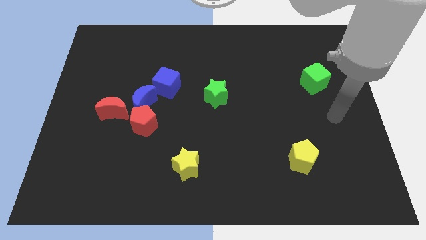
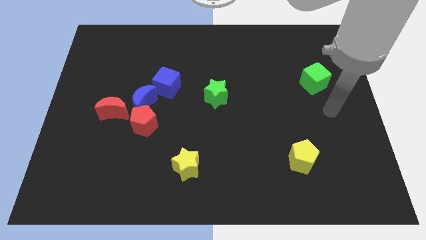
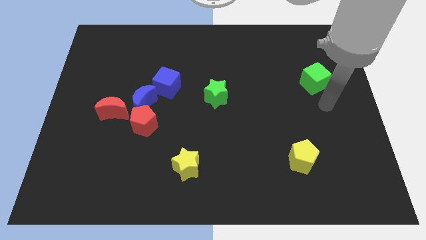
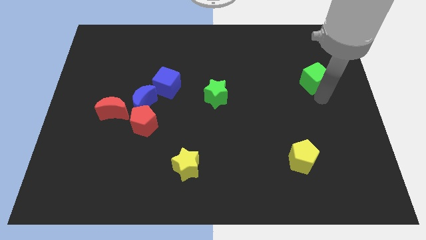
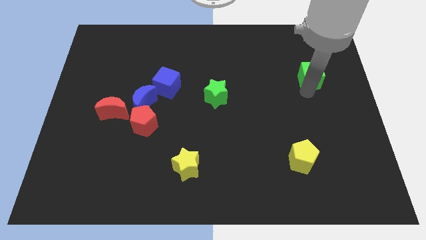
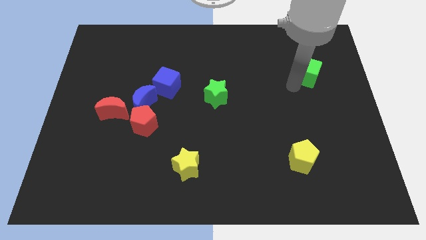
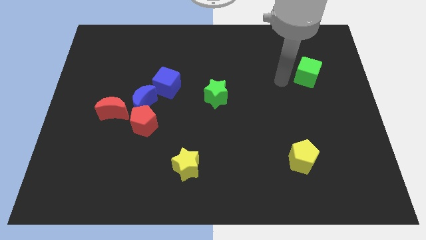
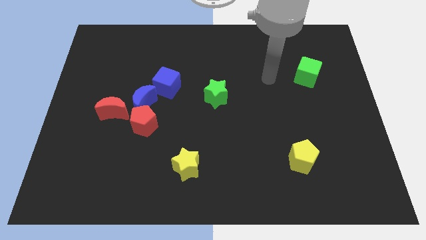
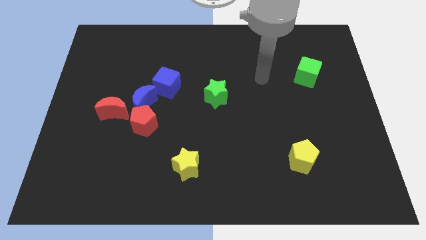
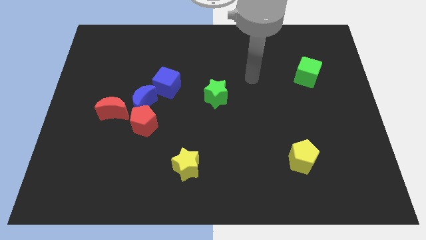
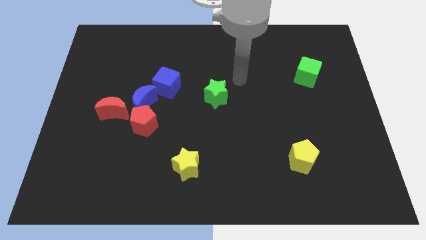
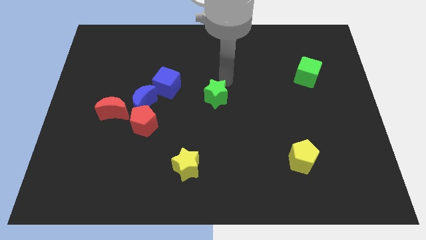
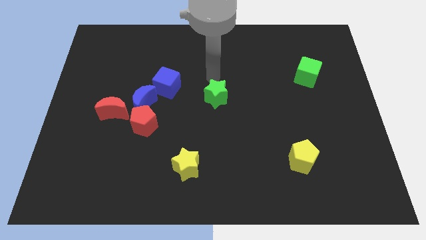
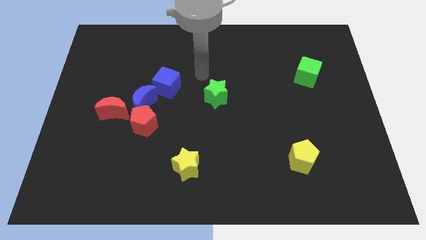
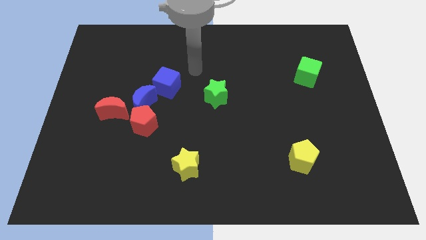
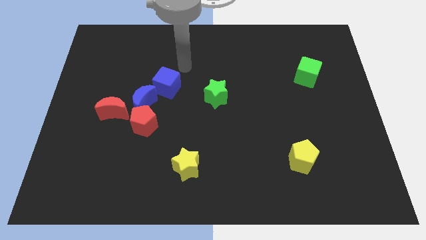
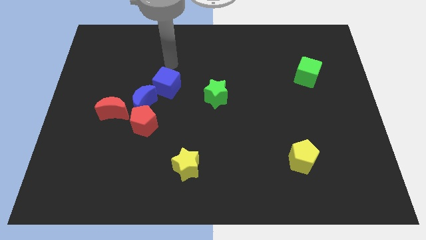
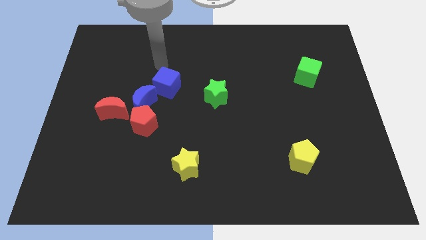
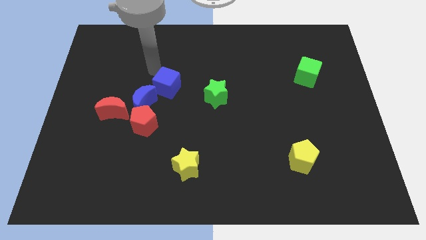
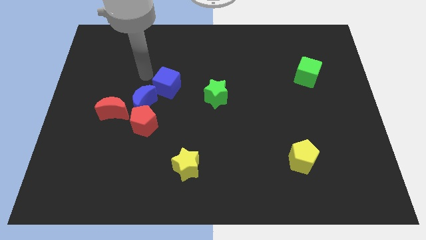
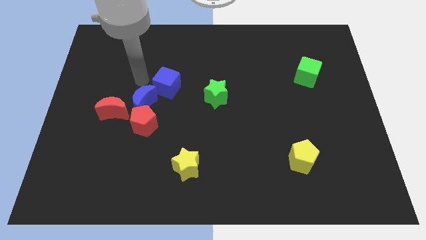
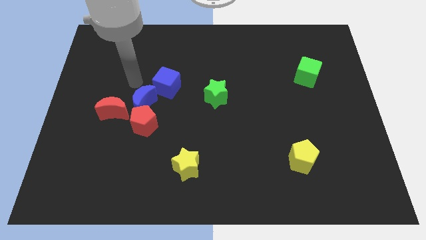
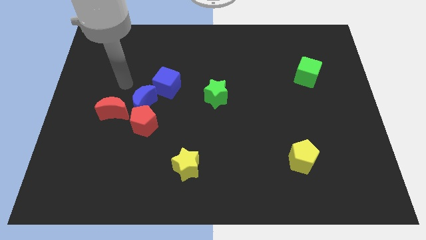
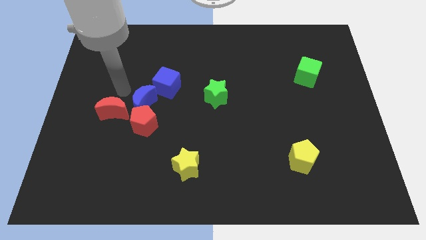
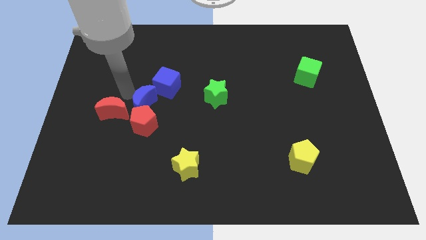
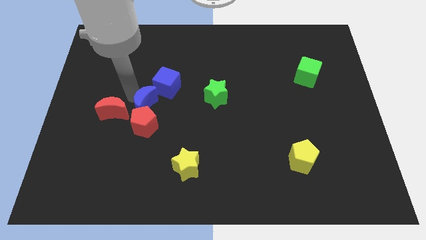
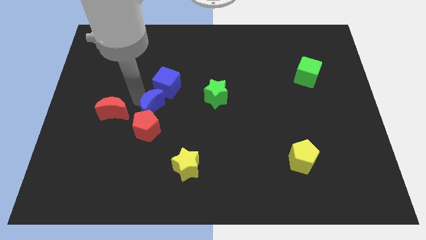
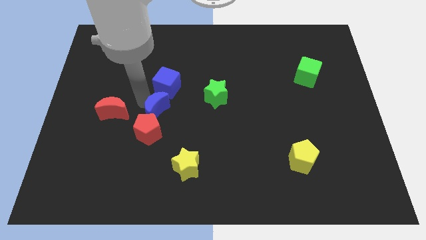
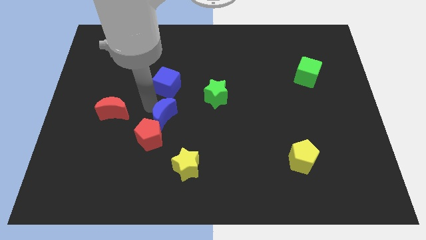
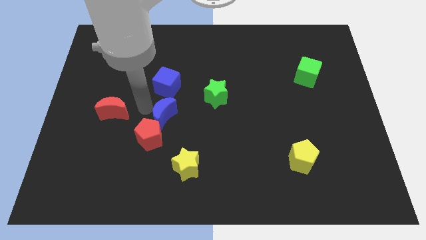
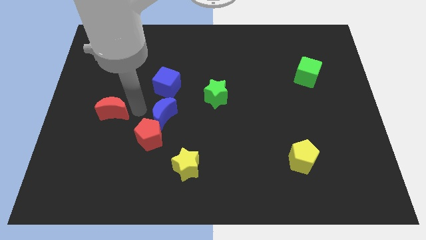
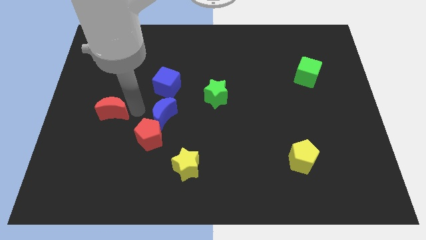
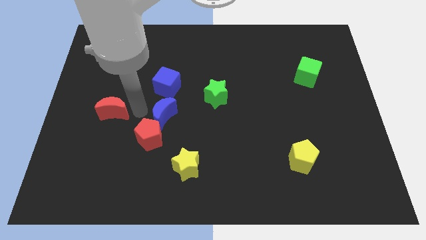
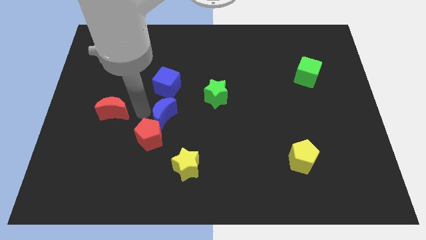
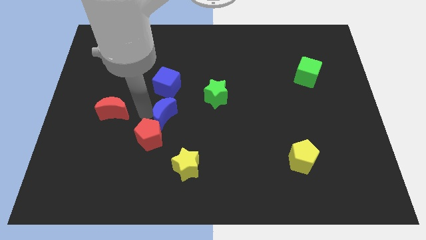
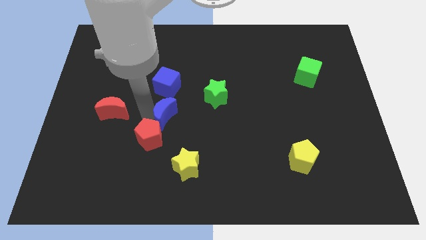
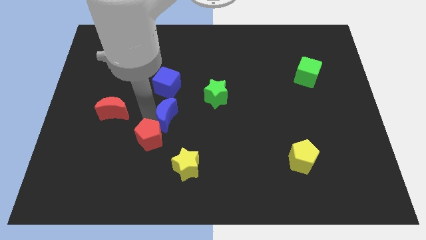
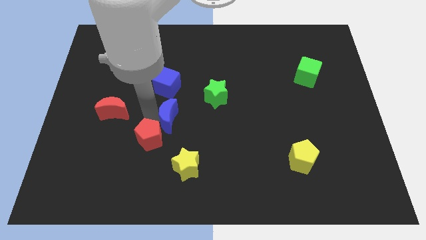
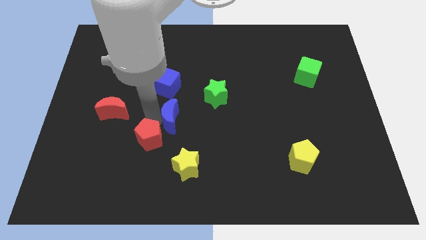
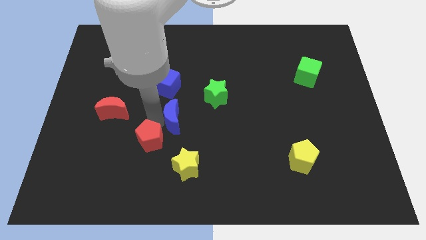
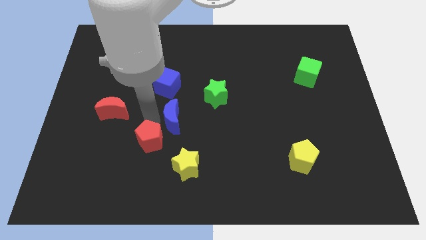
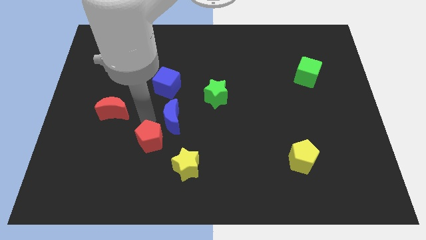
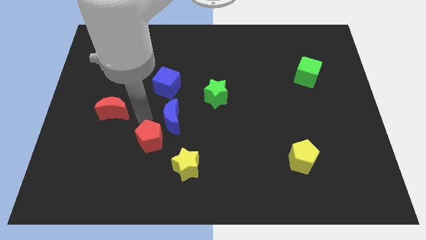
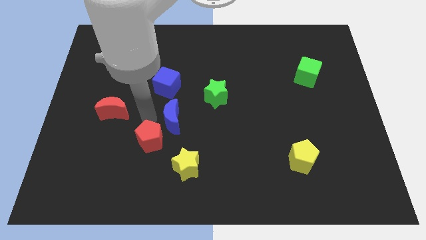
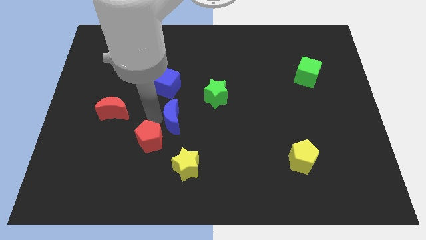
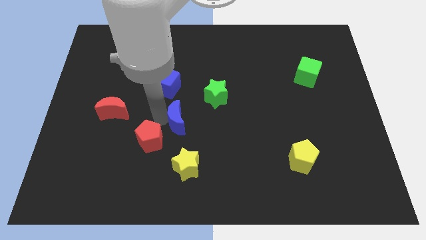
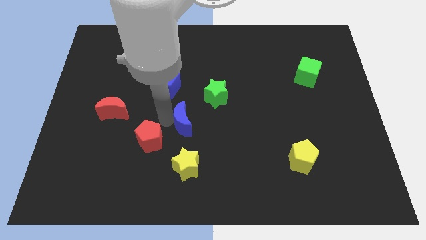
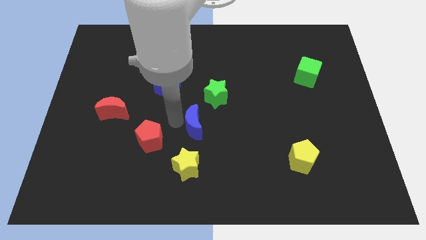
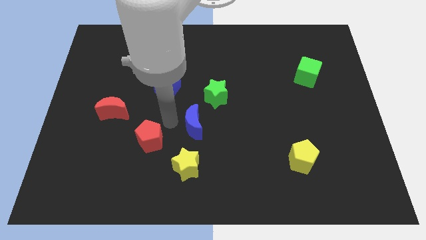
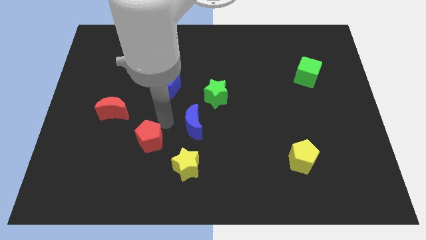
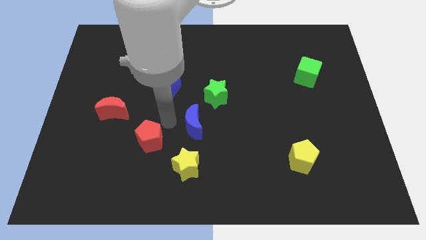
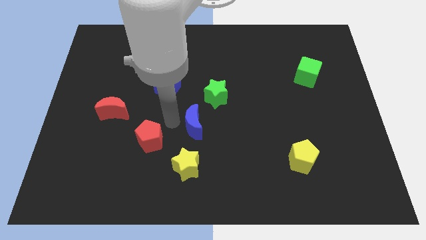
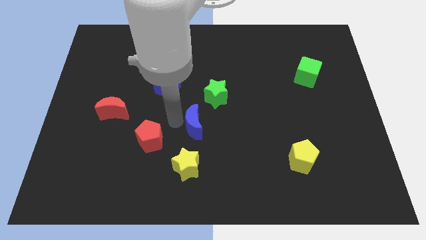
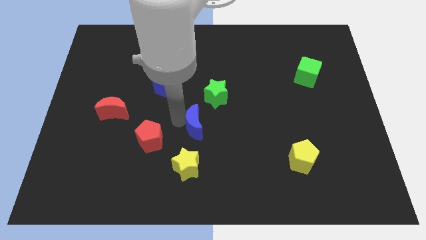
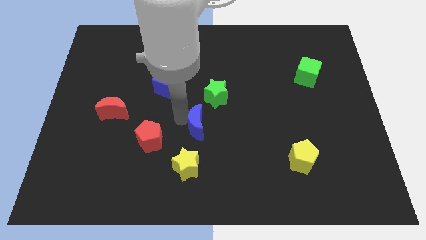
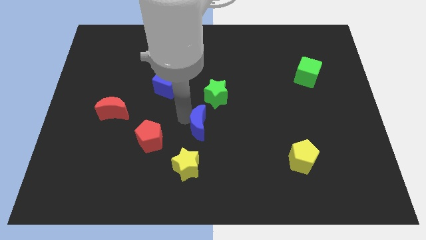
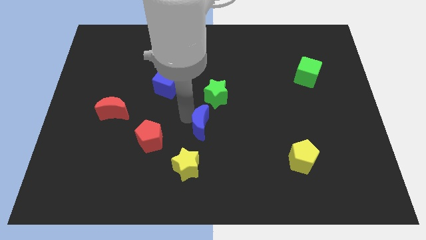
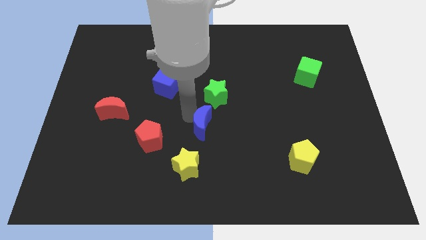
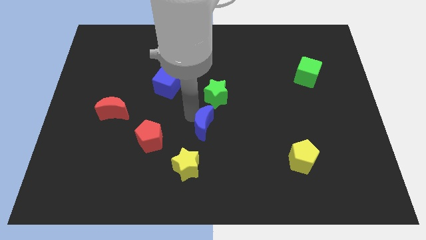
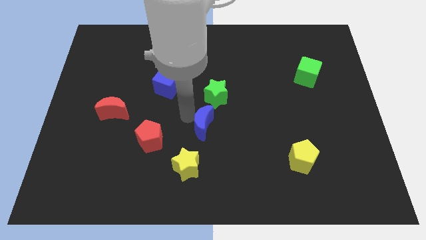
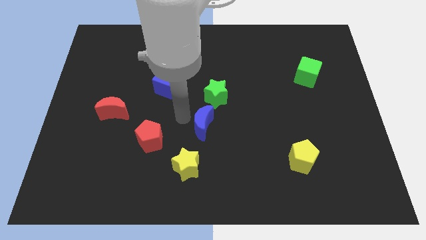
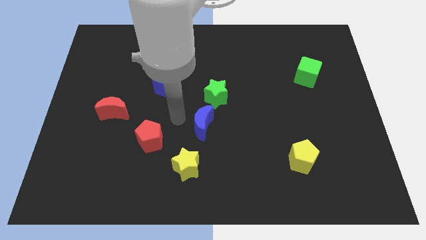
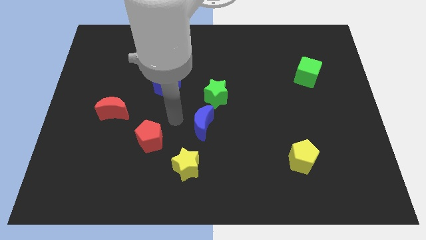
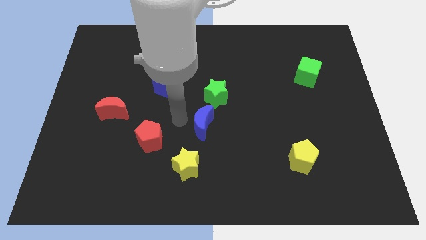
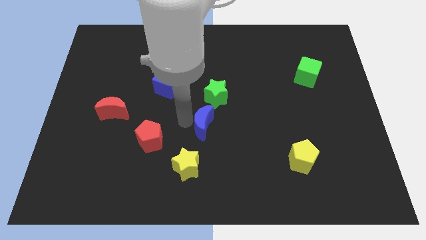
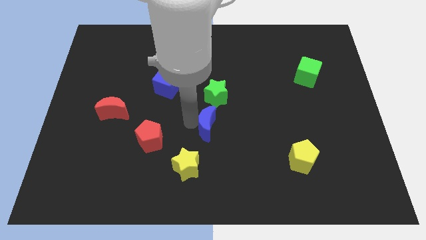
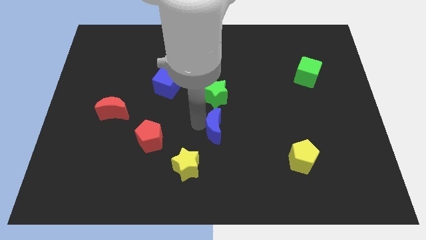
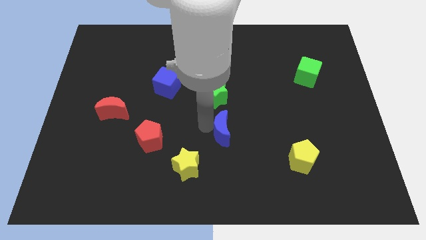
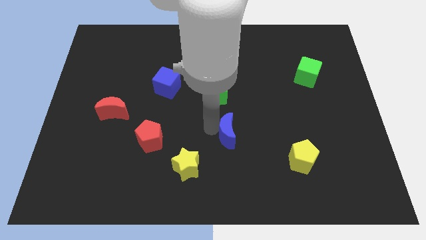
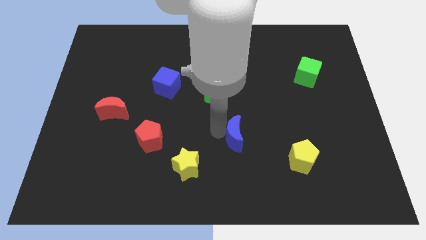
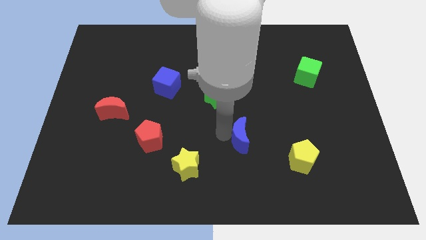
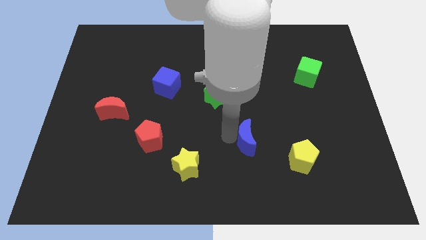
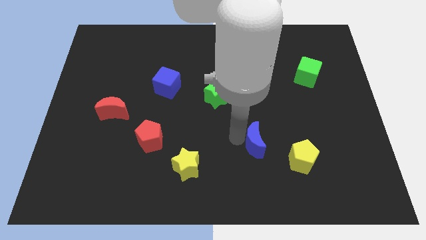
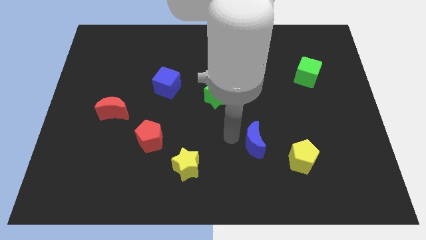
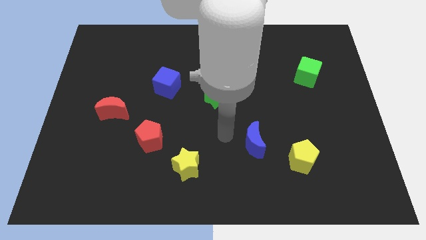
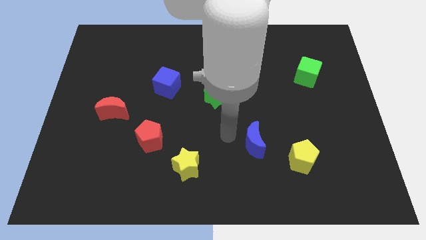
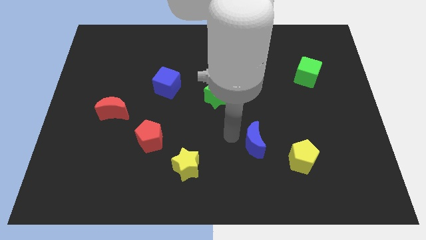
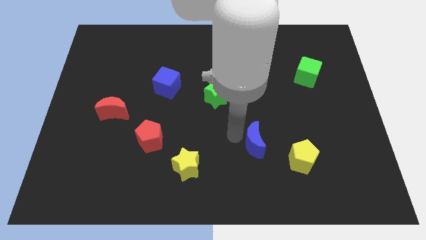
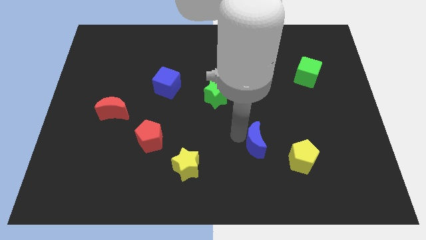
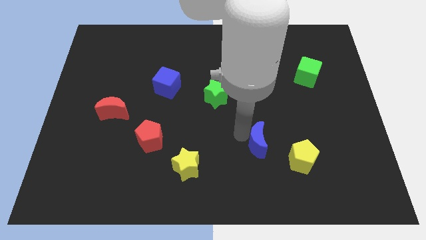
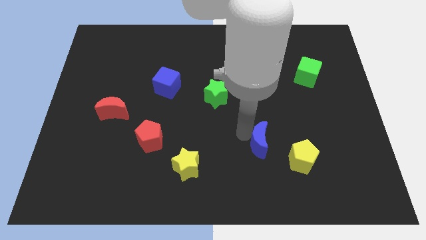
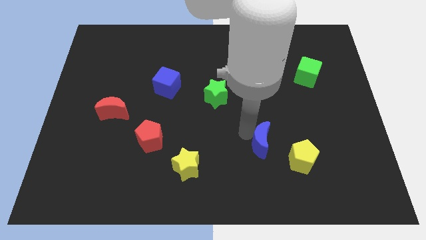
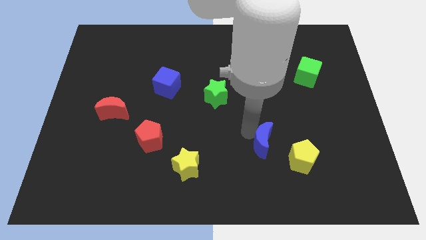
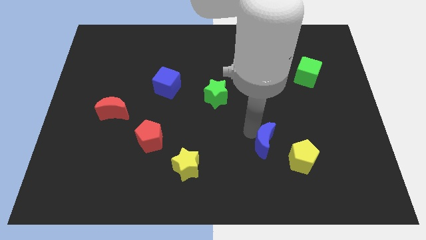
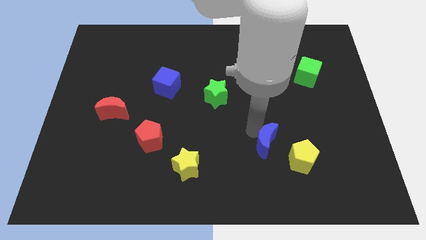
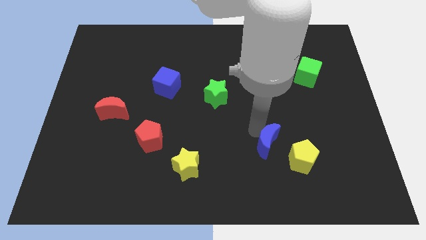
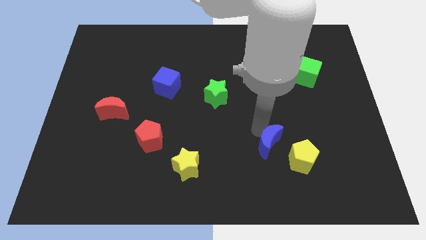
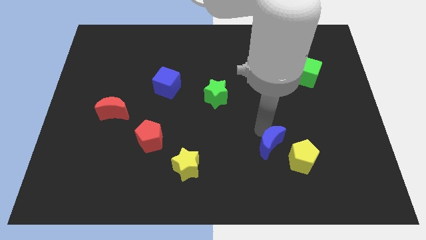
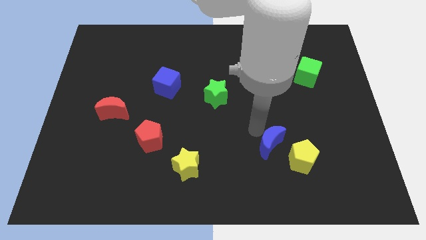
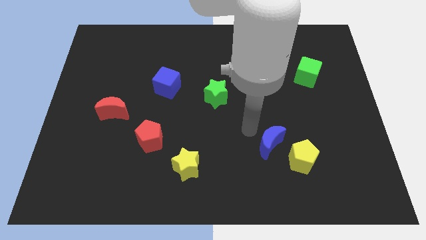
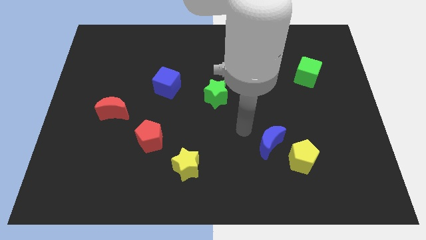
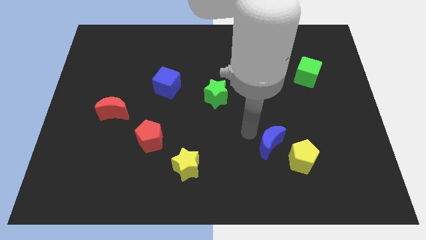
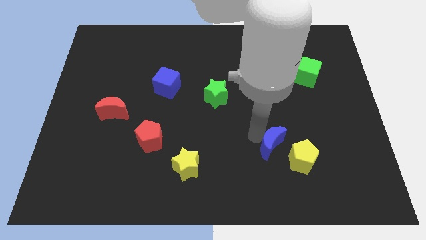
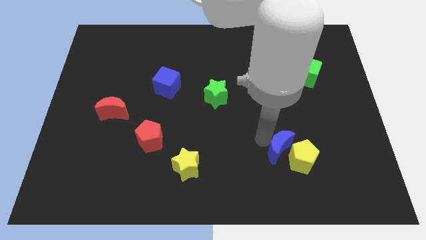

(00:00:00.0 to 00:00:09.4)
slide the blue moon towards the yellow pentagon
